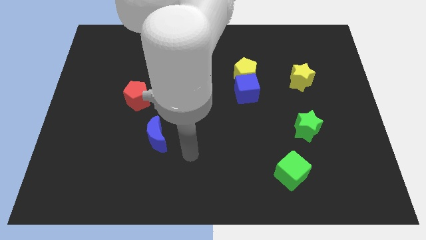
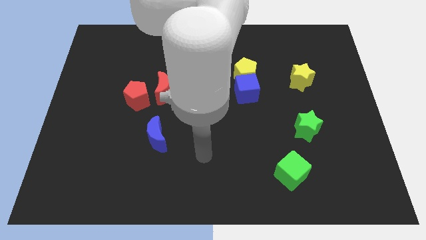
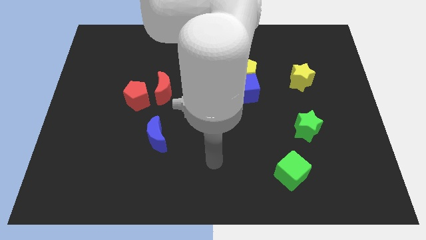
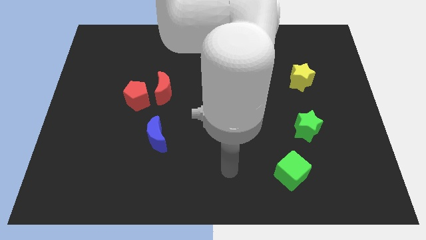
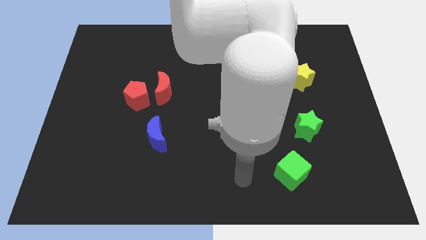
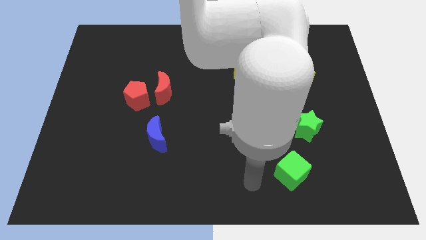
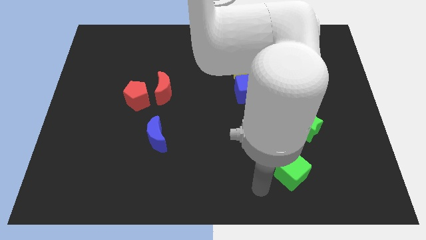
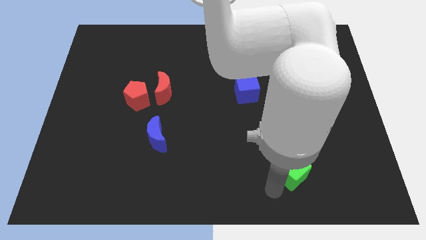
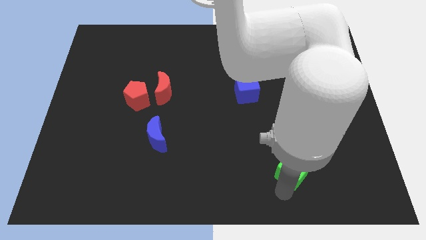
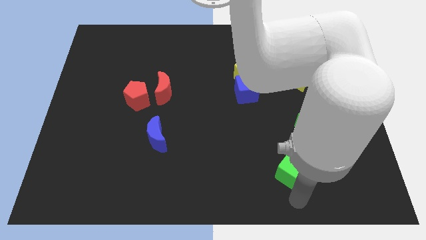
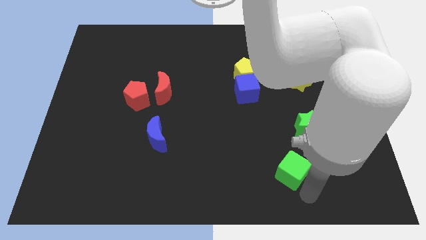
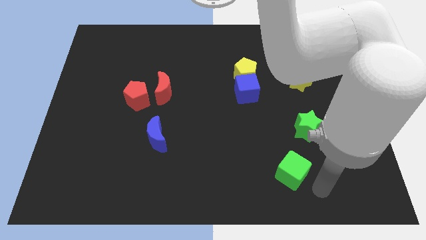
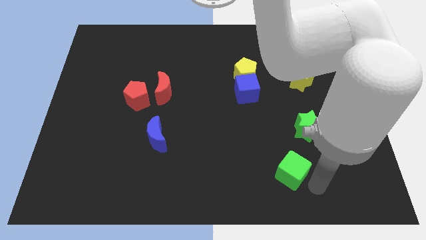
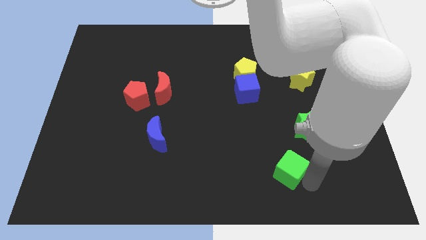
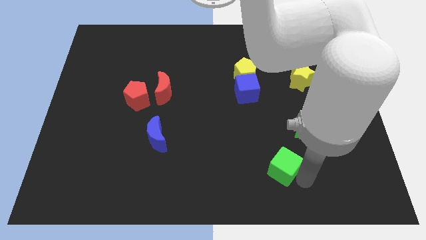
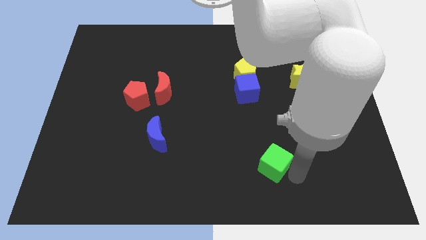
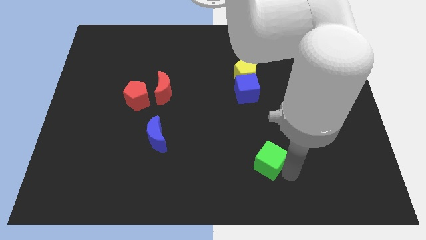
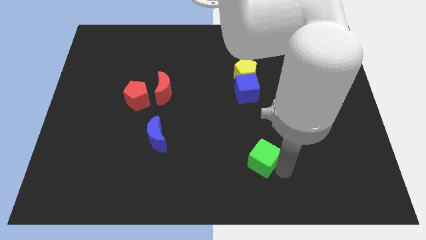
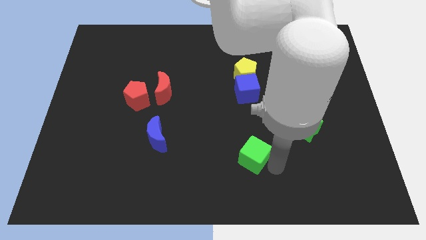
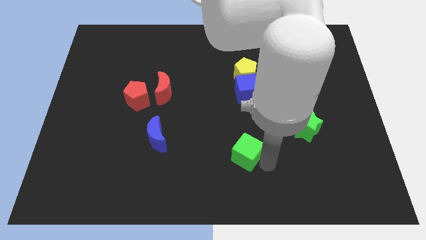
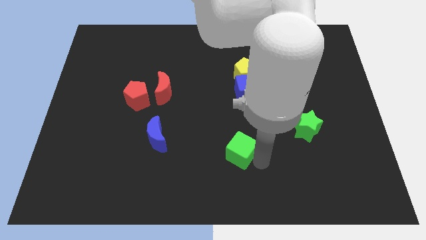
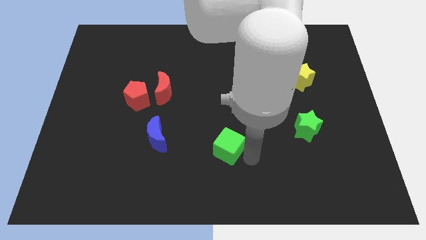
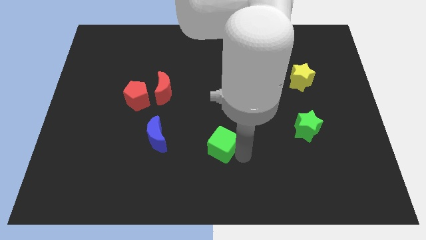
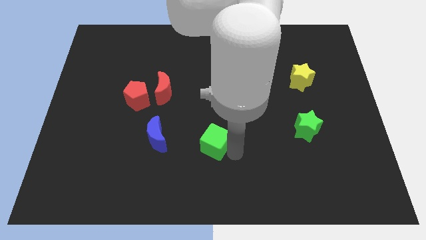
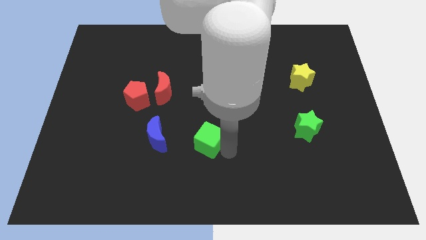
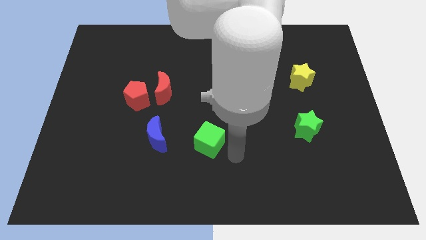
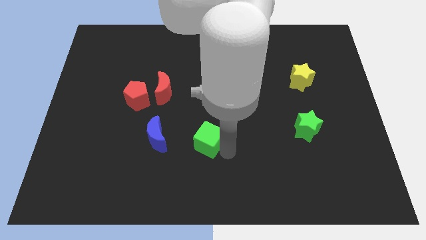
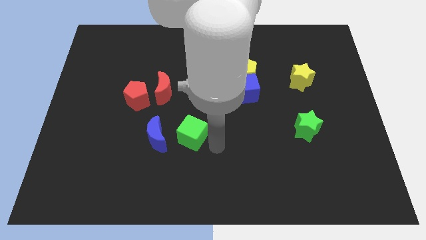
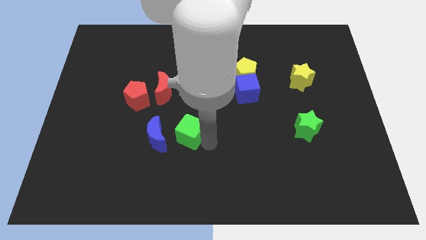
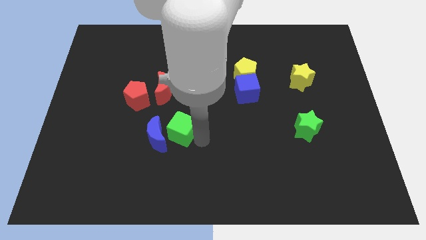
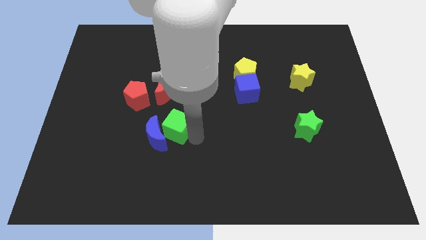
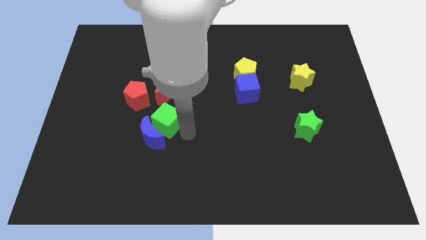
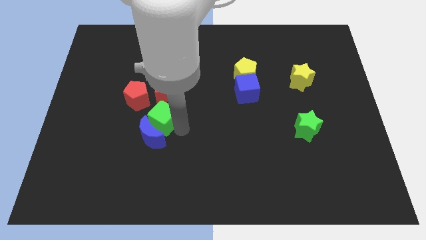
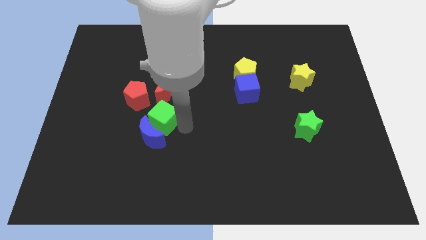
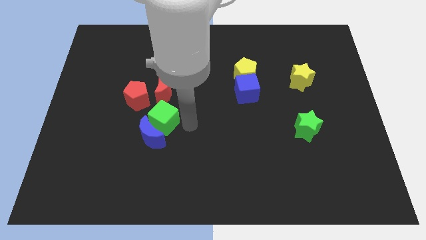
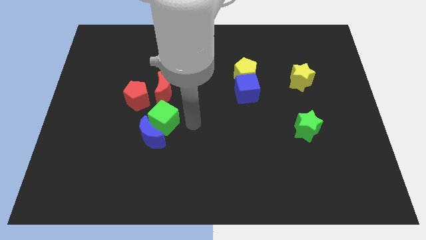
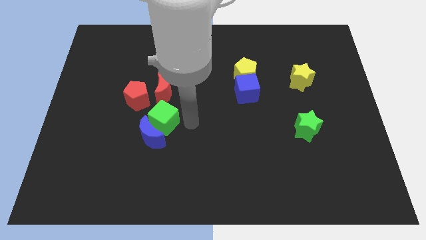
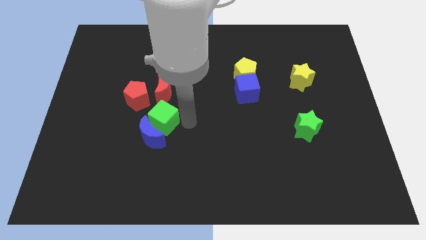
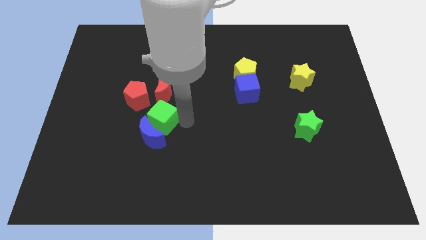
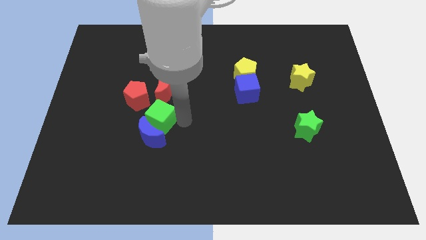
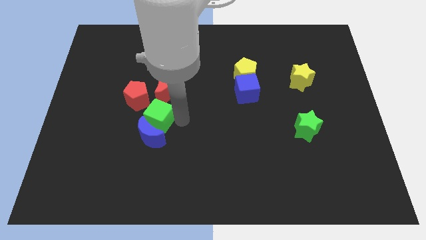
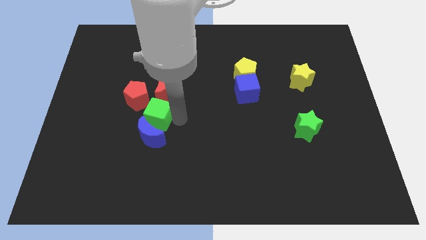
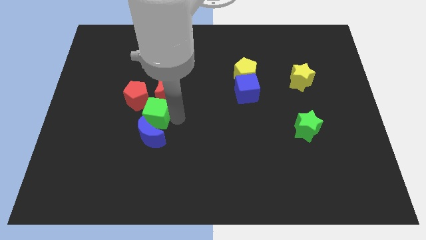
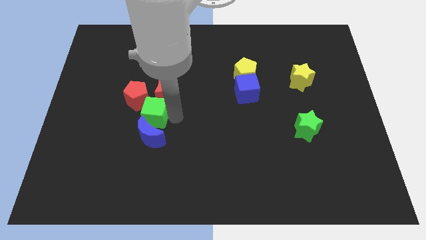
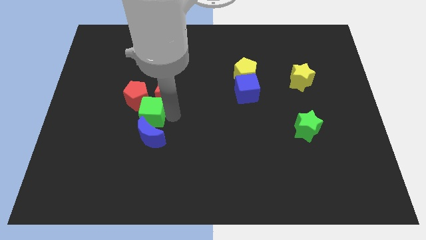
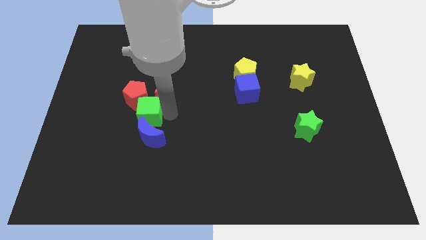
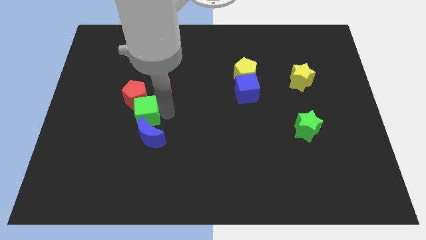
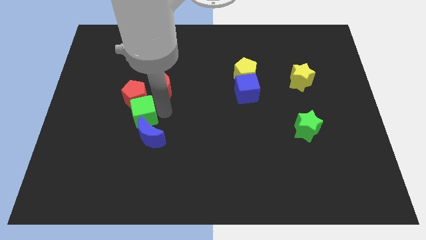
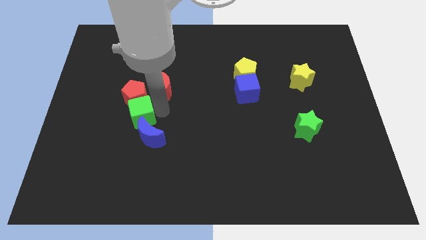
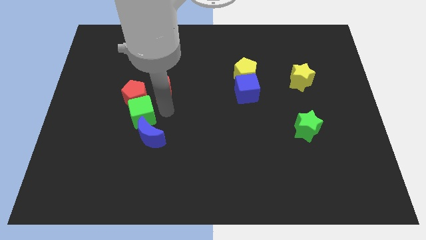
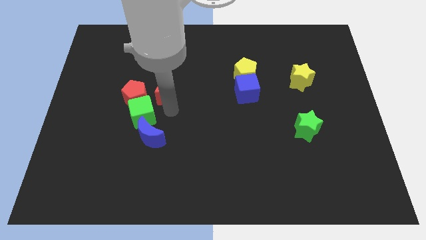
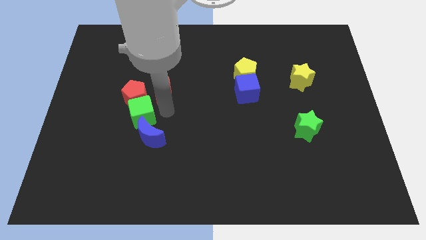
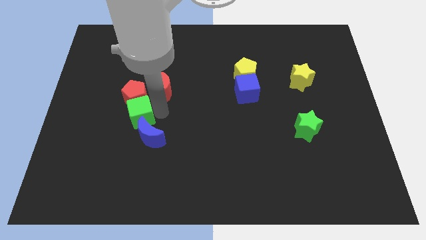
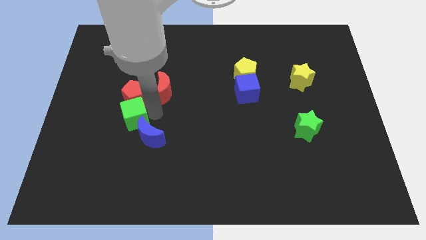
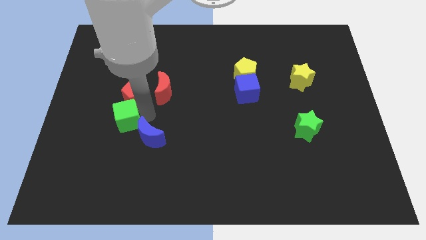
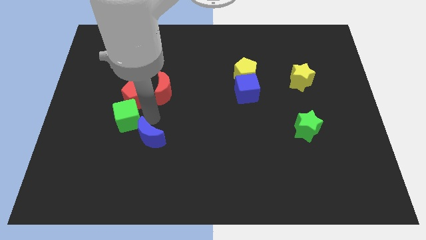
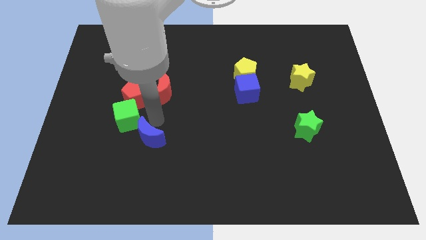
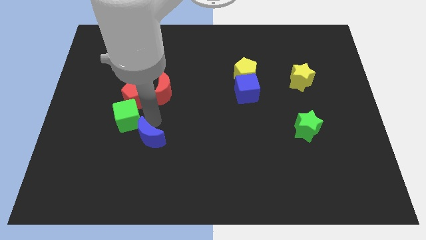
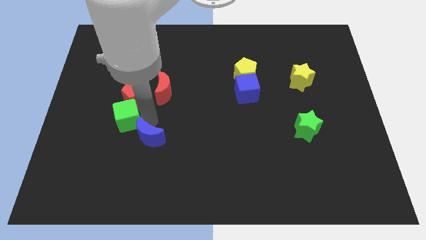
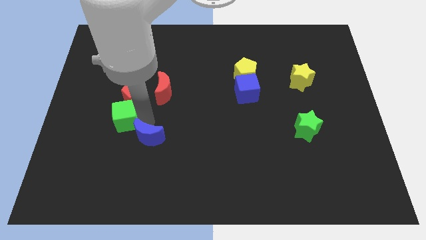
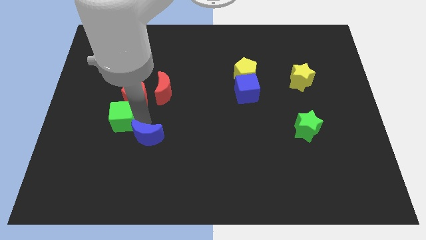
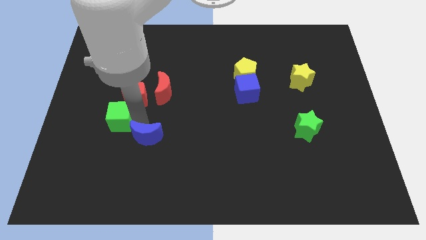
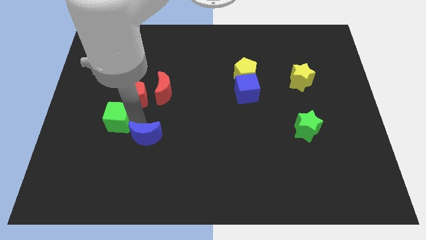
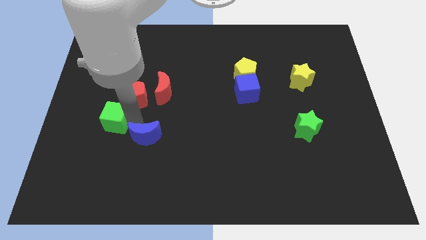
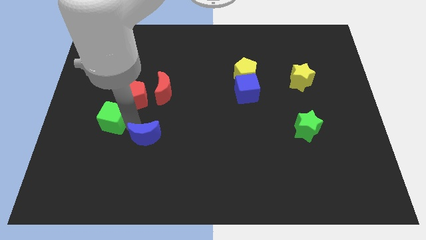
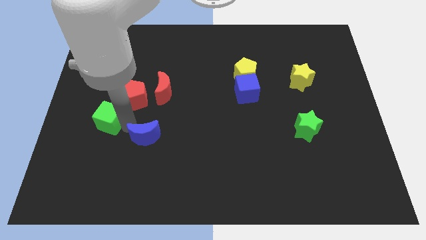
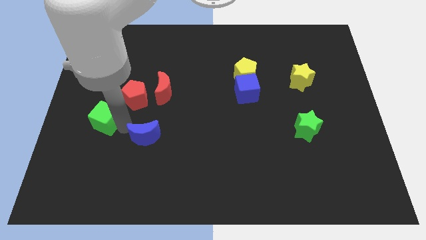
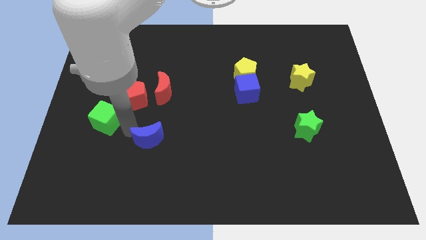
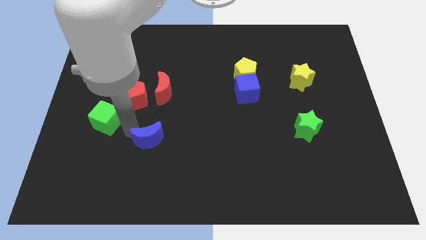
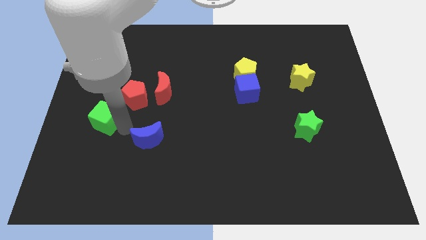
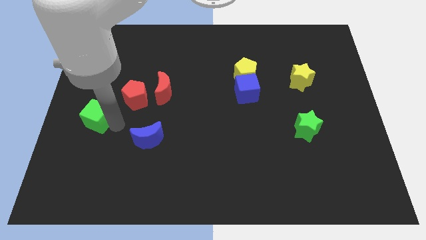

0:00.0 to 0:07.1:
slide the green cube to the center left
